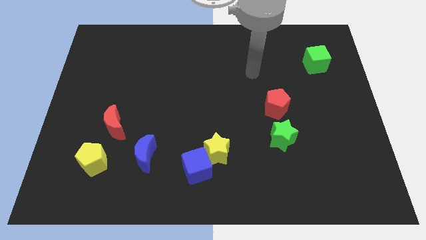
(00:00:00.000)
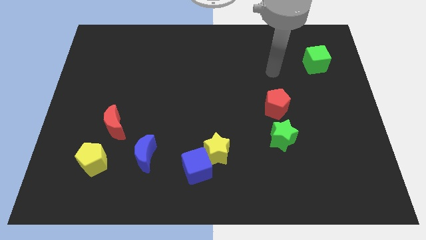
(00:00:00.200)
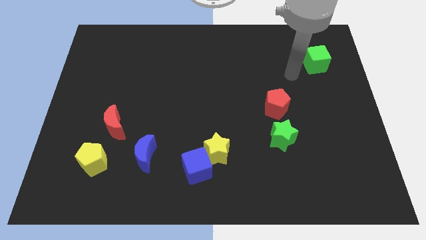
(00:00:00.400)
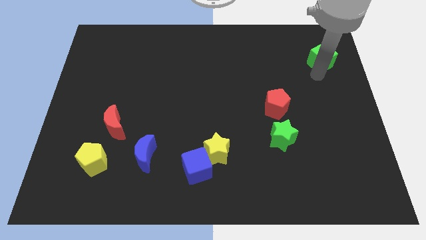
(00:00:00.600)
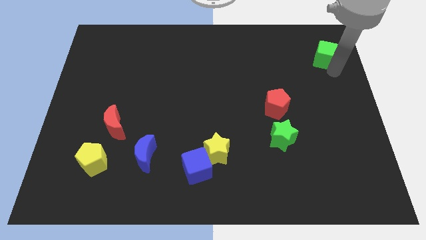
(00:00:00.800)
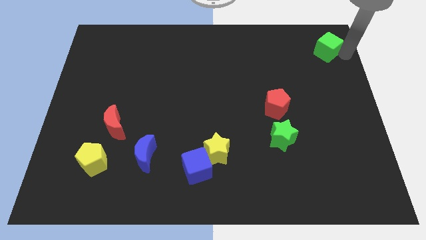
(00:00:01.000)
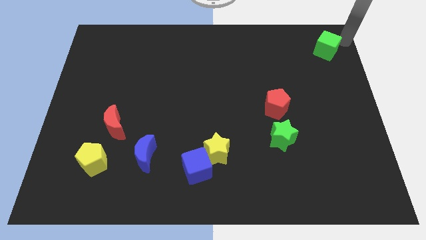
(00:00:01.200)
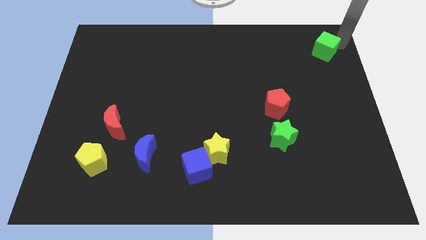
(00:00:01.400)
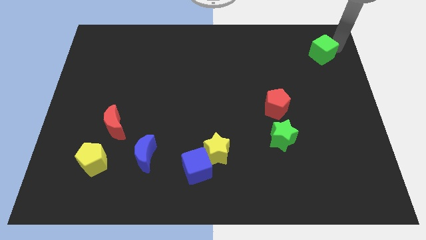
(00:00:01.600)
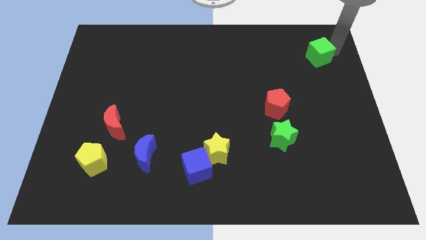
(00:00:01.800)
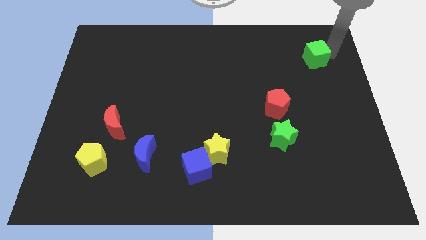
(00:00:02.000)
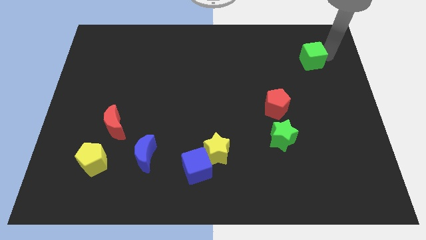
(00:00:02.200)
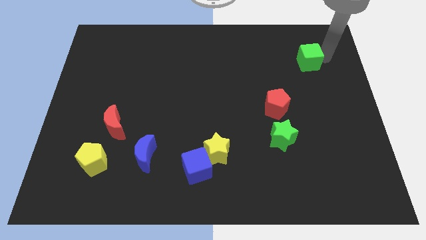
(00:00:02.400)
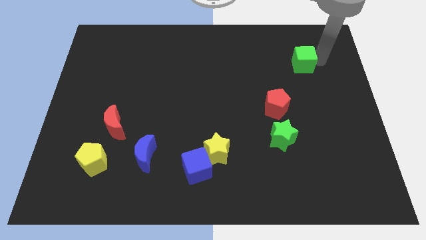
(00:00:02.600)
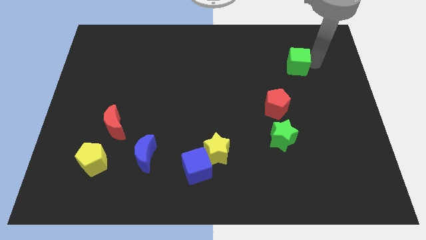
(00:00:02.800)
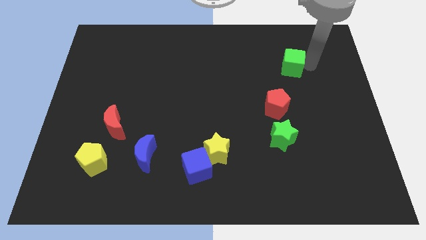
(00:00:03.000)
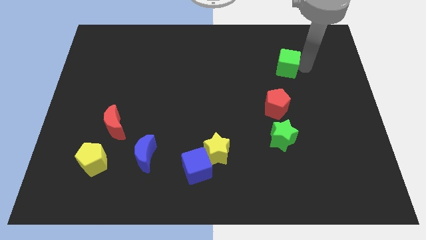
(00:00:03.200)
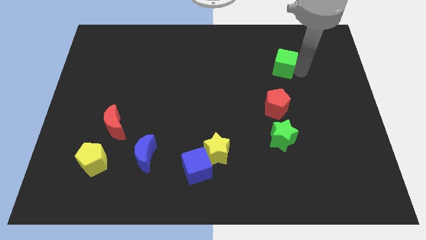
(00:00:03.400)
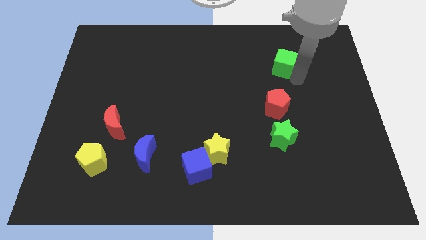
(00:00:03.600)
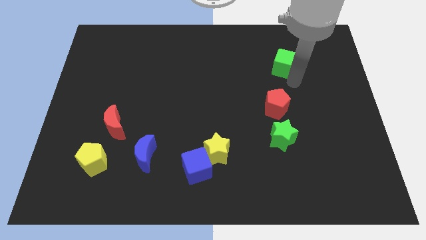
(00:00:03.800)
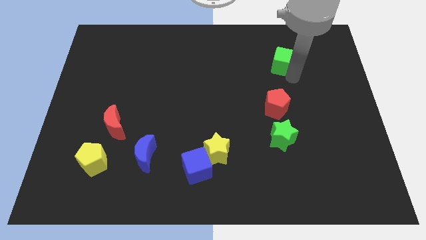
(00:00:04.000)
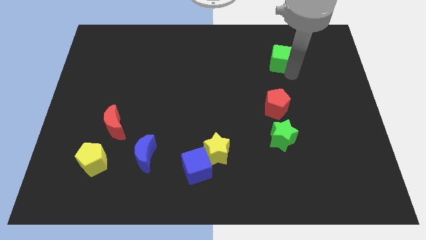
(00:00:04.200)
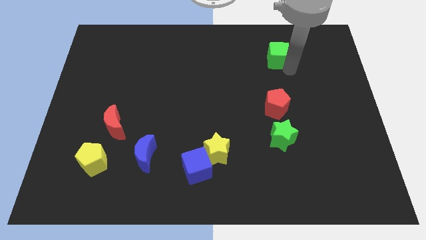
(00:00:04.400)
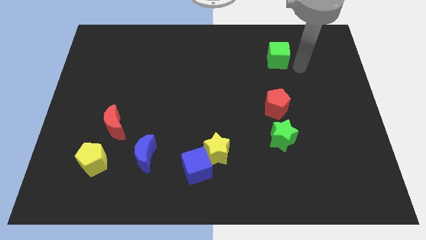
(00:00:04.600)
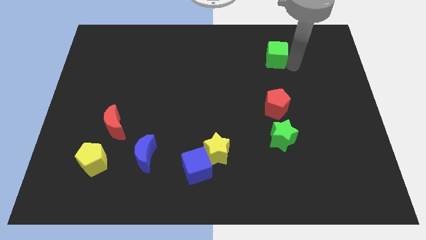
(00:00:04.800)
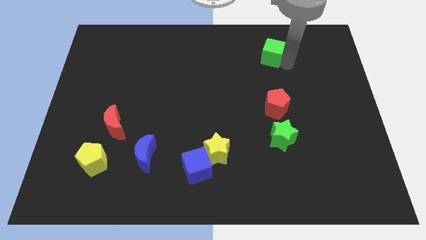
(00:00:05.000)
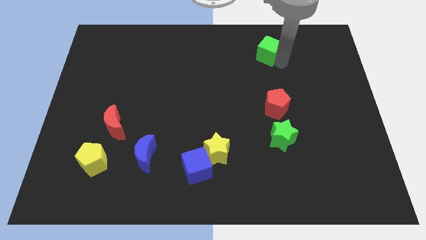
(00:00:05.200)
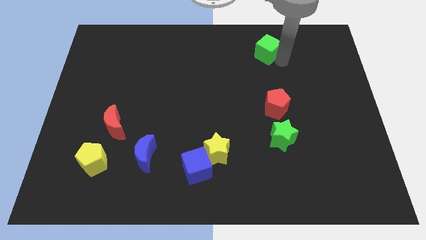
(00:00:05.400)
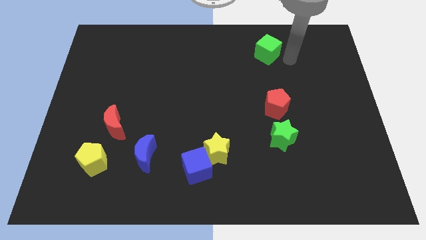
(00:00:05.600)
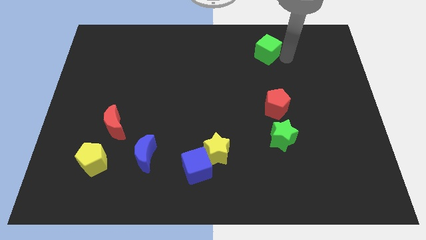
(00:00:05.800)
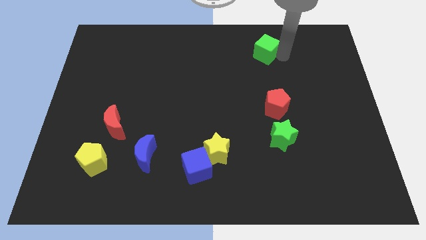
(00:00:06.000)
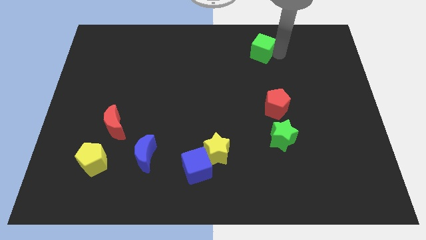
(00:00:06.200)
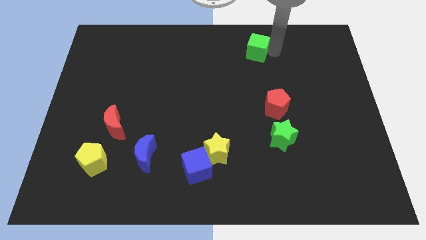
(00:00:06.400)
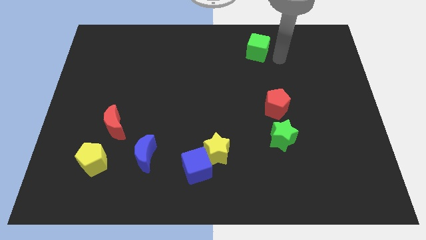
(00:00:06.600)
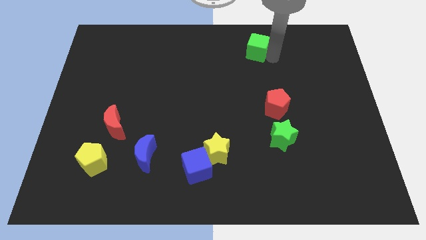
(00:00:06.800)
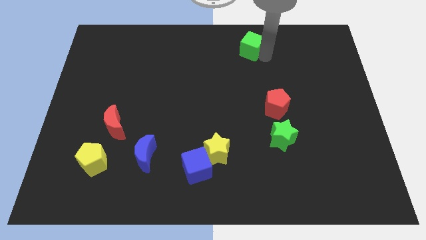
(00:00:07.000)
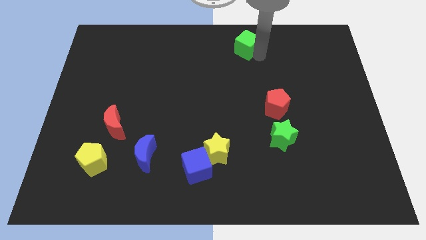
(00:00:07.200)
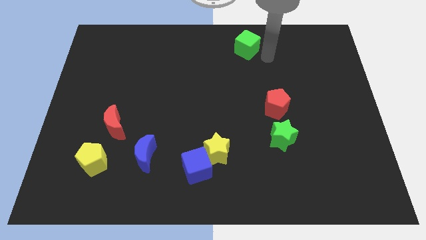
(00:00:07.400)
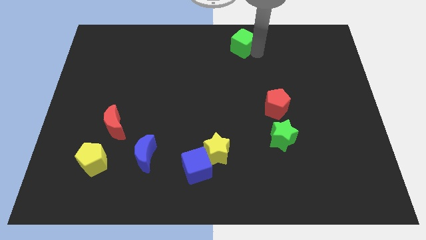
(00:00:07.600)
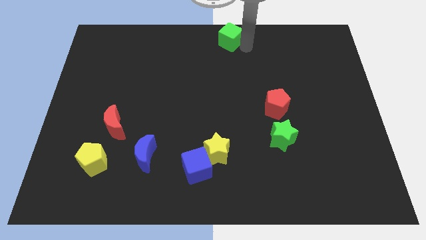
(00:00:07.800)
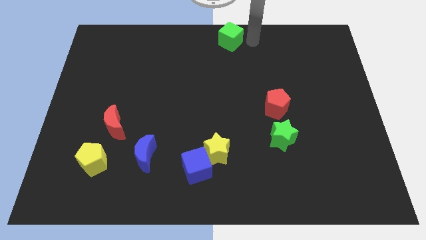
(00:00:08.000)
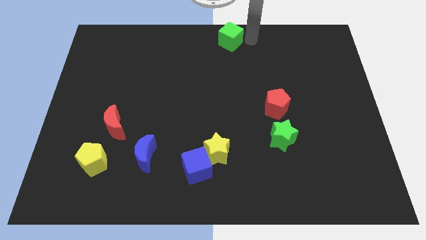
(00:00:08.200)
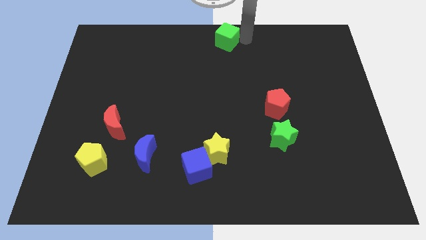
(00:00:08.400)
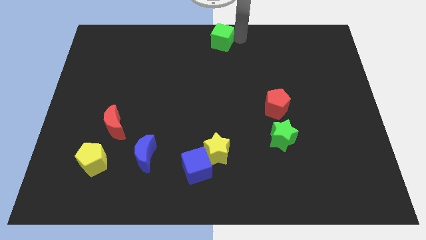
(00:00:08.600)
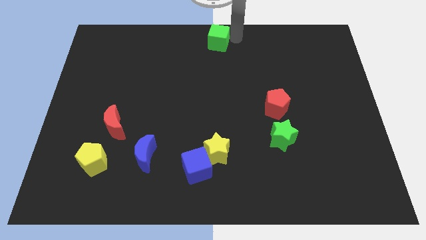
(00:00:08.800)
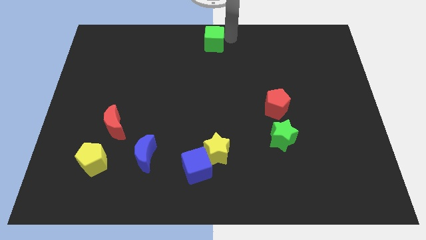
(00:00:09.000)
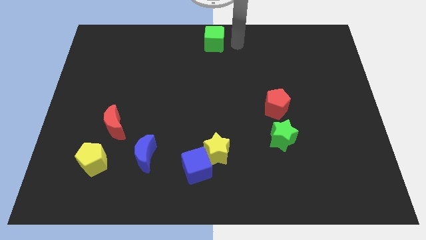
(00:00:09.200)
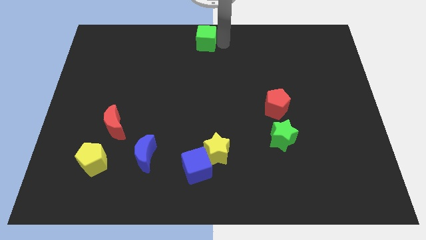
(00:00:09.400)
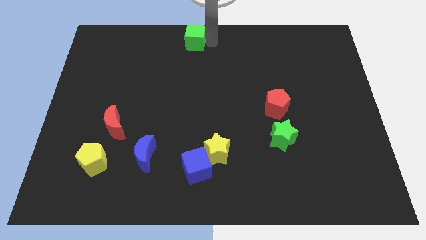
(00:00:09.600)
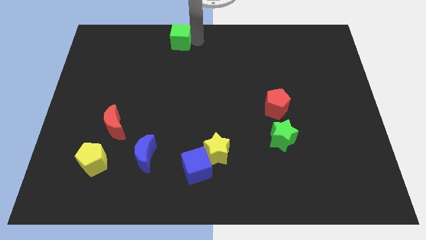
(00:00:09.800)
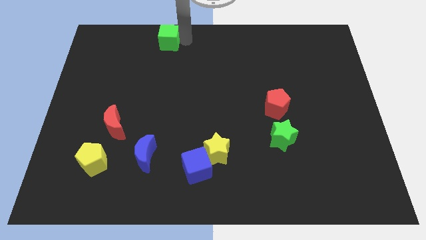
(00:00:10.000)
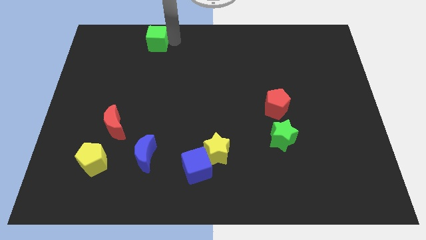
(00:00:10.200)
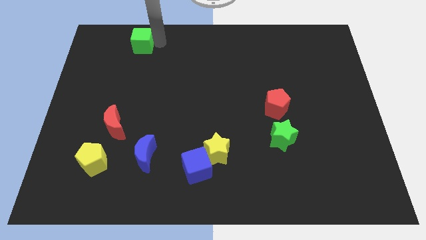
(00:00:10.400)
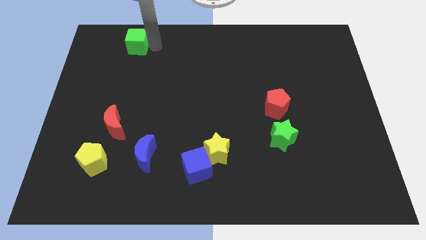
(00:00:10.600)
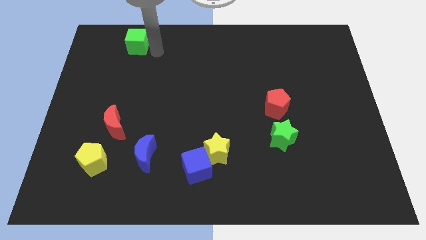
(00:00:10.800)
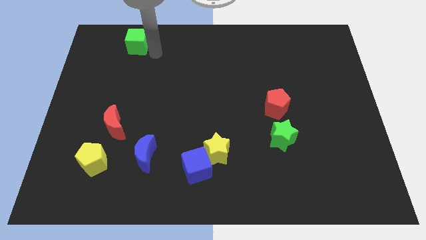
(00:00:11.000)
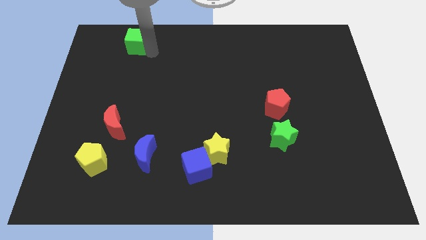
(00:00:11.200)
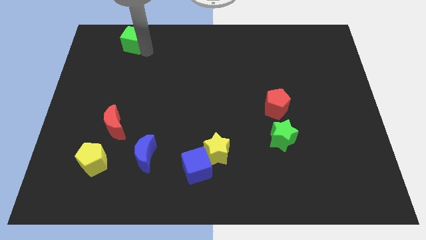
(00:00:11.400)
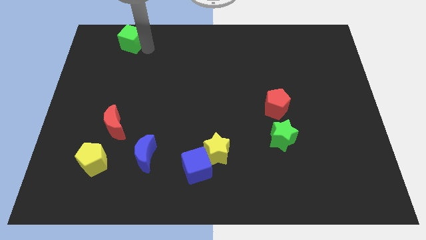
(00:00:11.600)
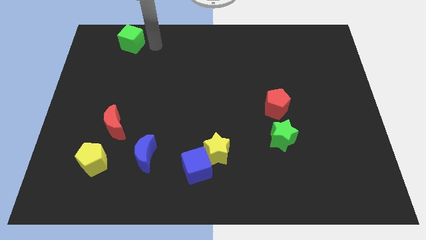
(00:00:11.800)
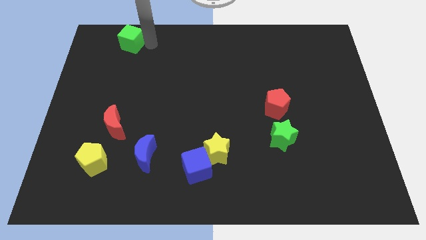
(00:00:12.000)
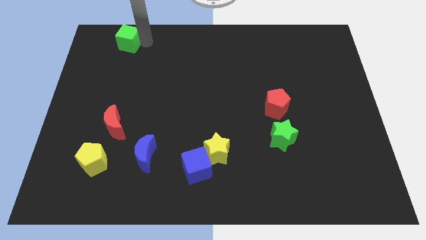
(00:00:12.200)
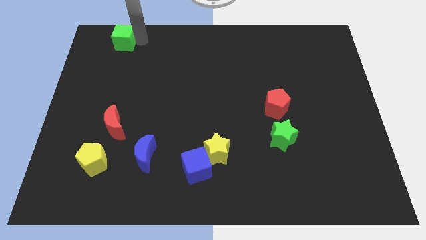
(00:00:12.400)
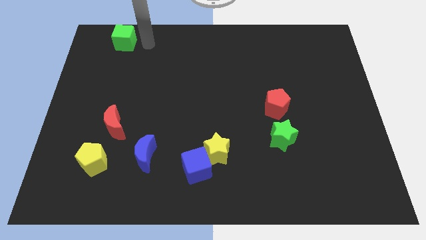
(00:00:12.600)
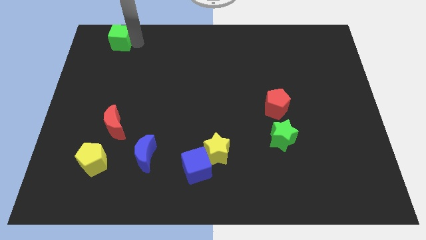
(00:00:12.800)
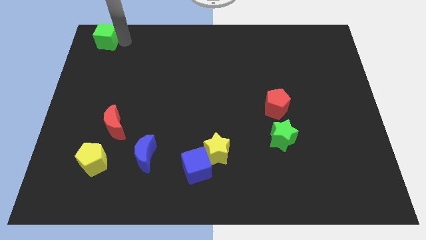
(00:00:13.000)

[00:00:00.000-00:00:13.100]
put the green cube to the top left
